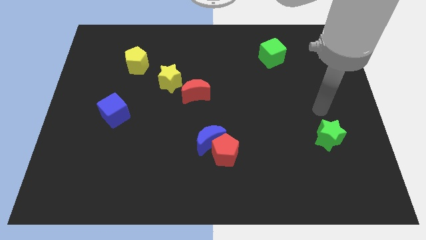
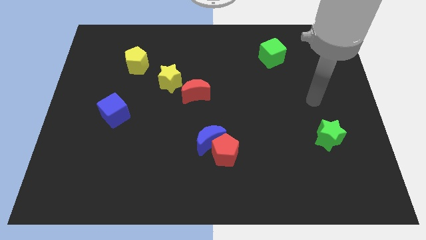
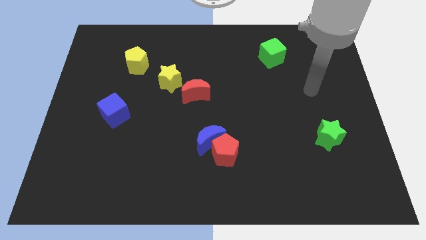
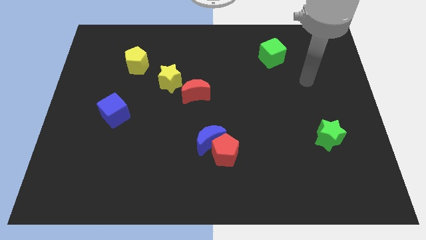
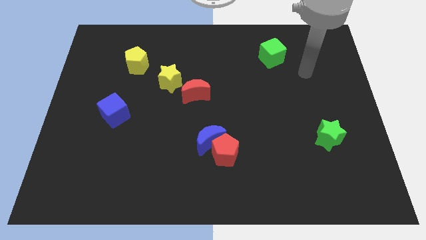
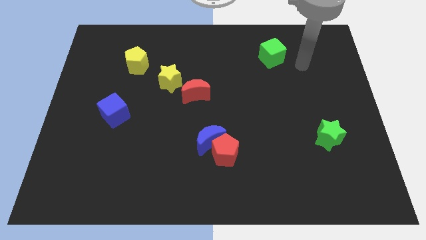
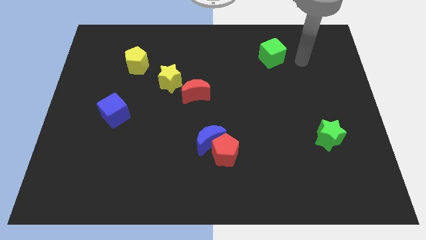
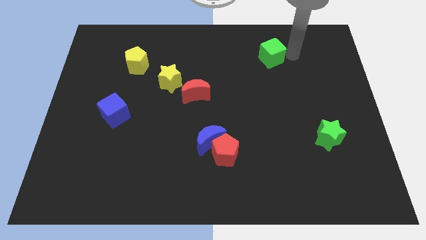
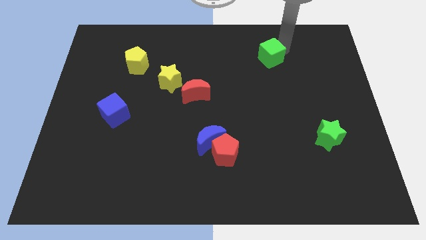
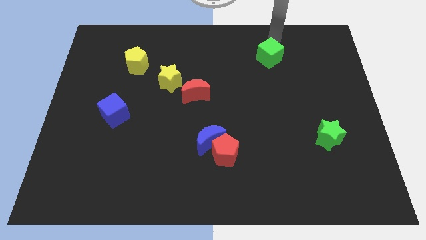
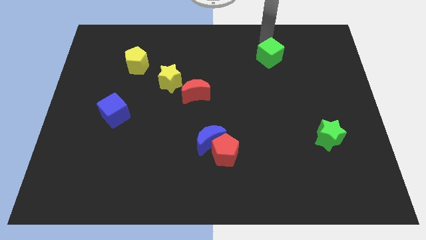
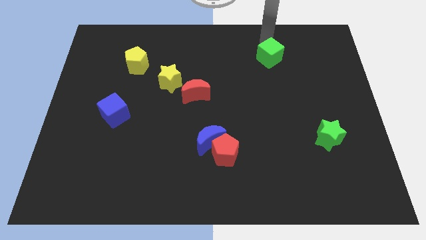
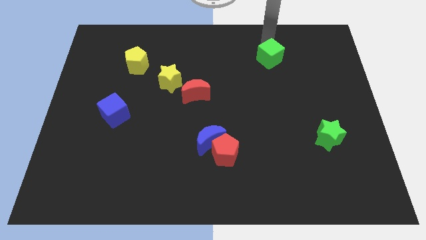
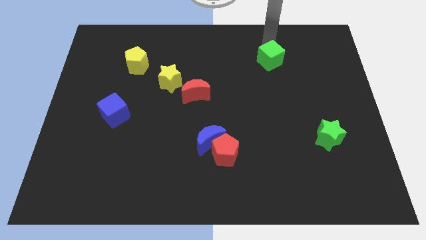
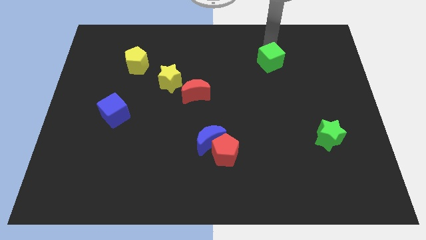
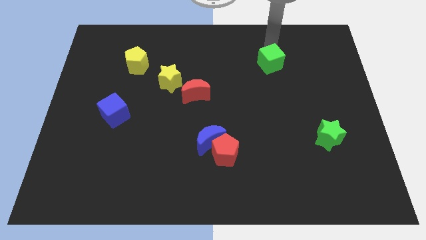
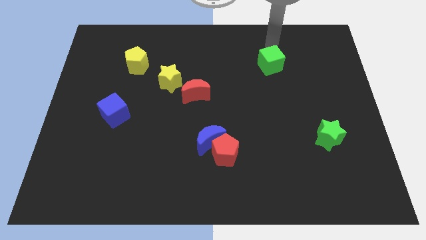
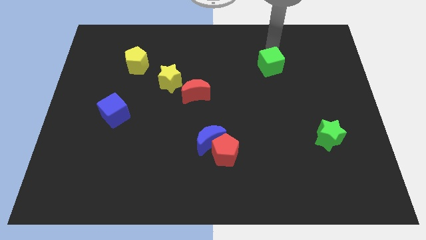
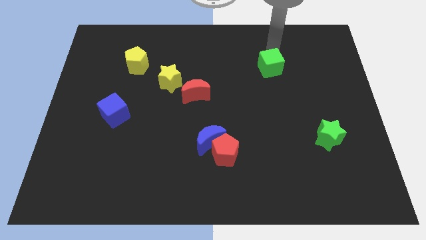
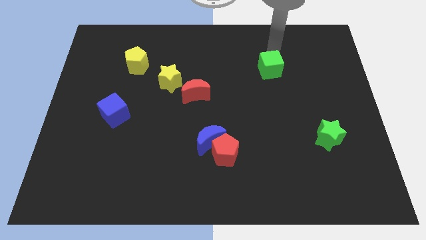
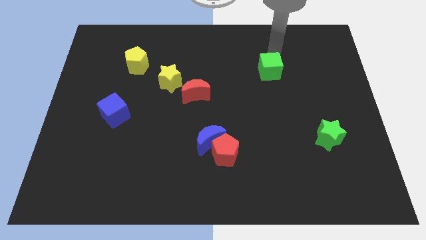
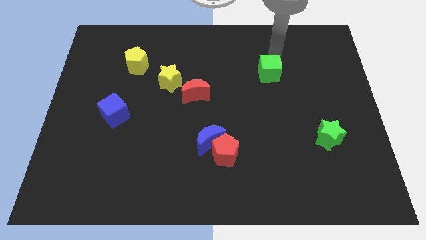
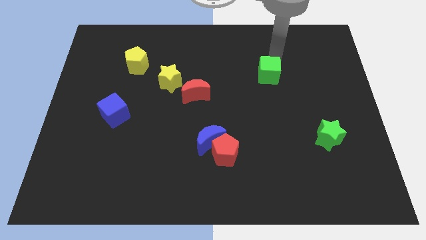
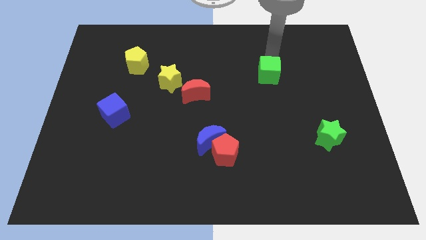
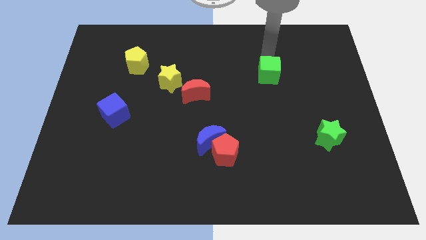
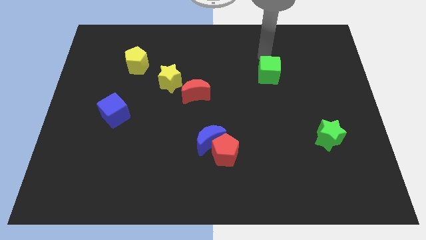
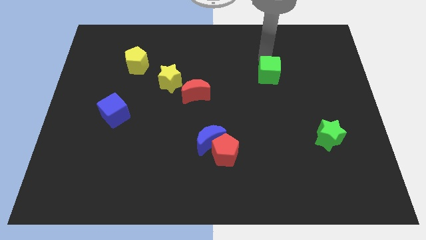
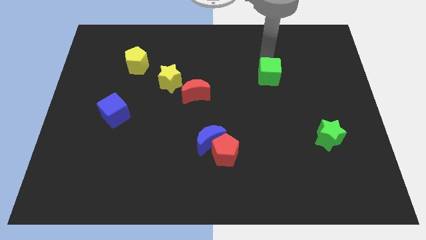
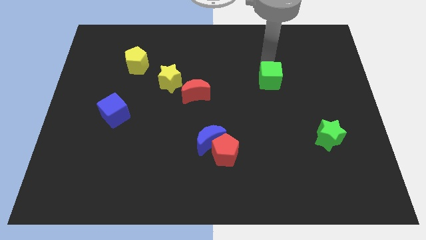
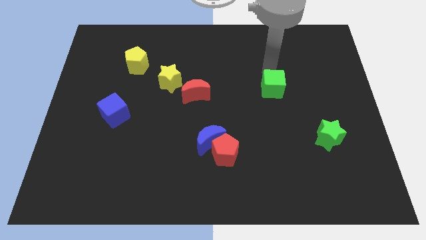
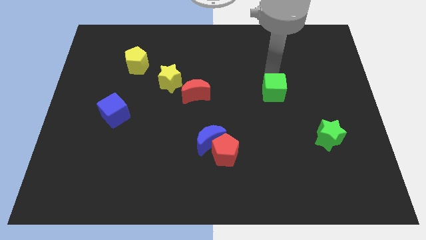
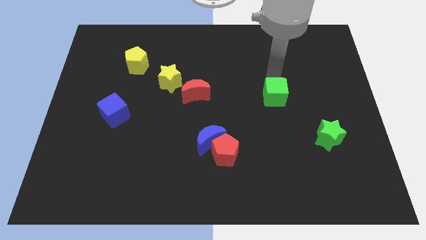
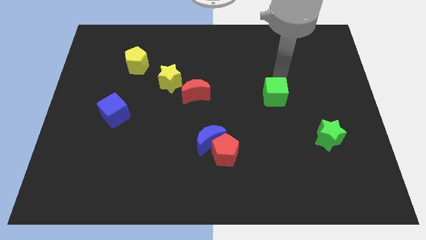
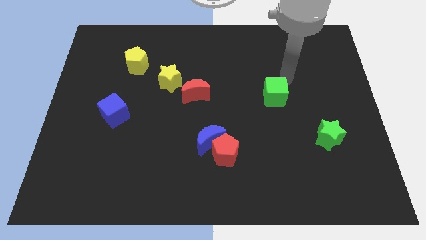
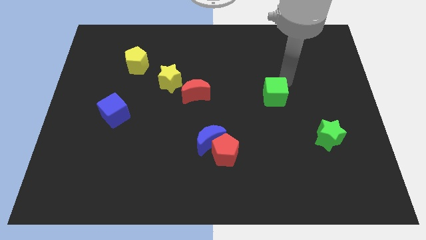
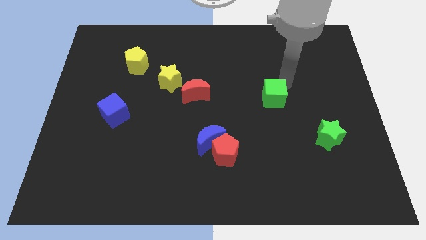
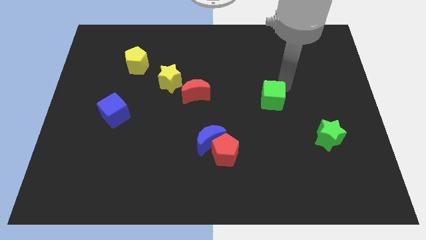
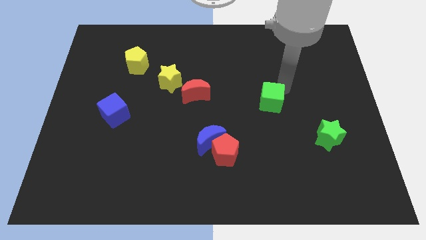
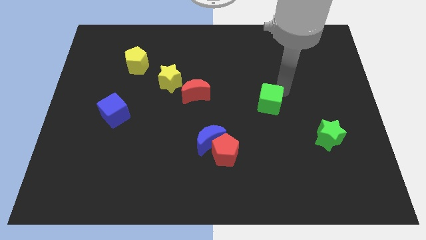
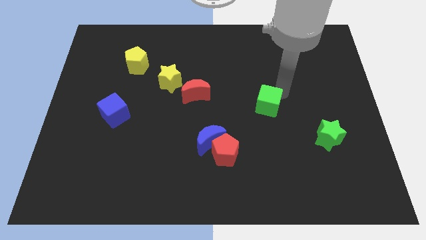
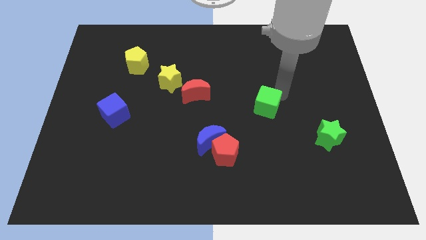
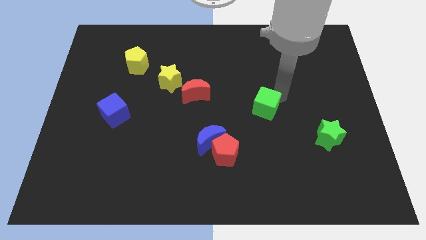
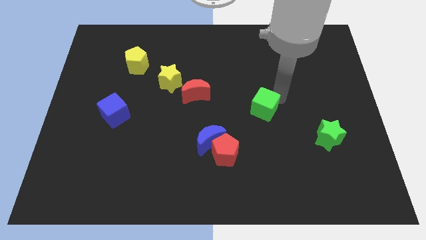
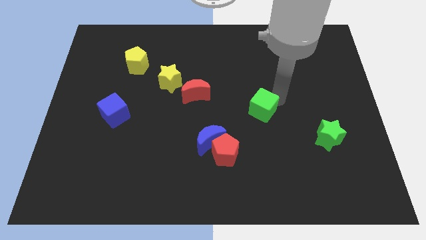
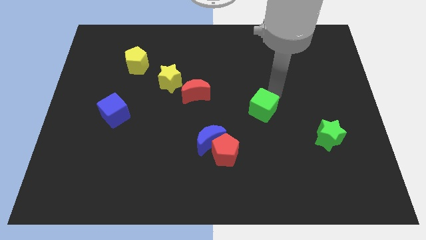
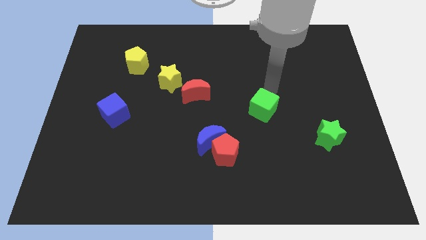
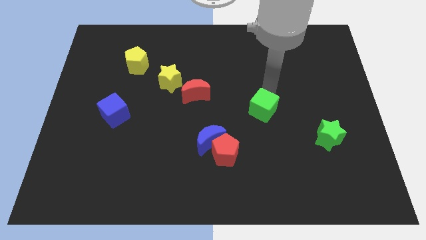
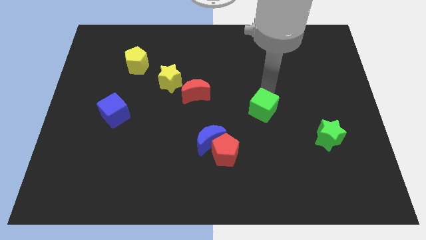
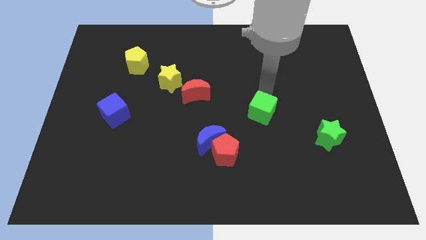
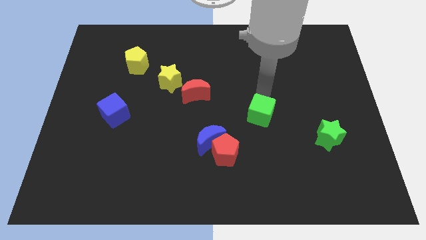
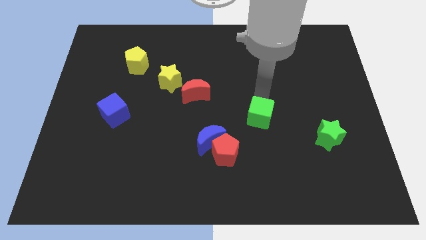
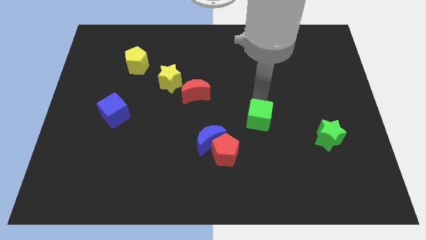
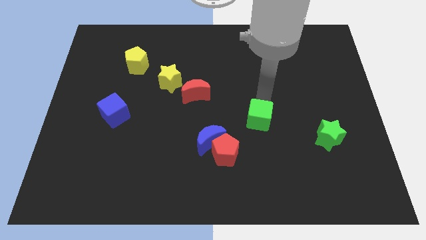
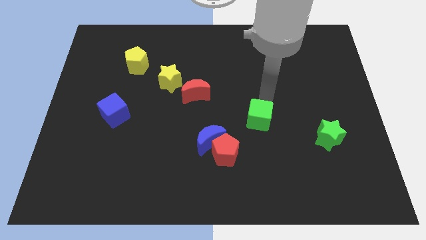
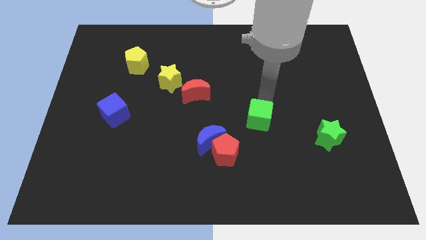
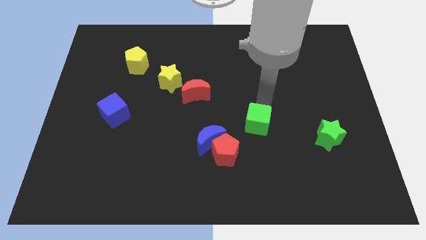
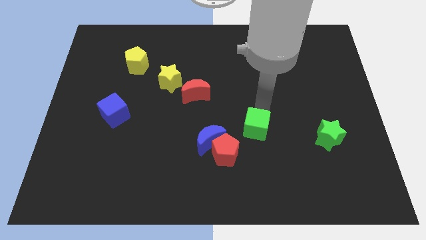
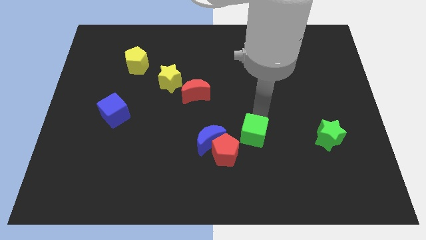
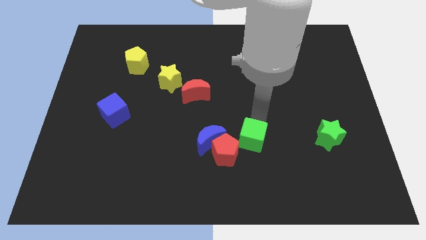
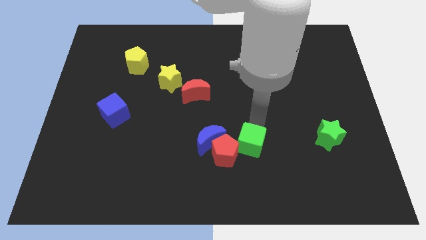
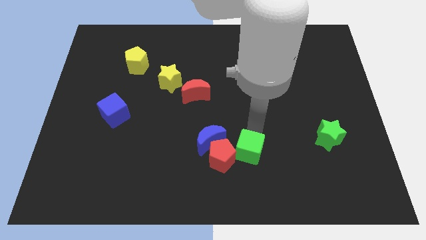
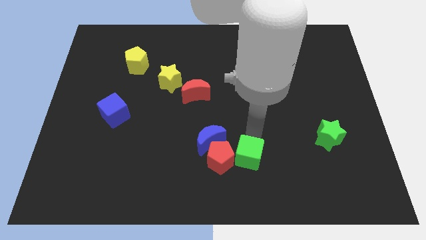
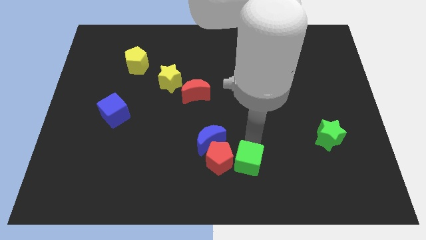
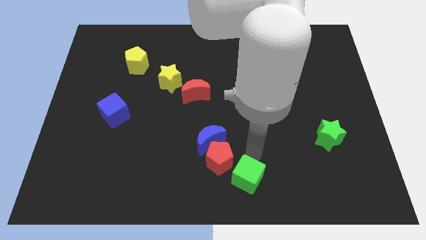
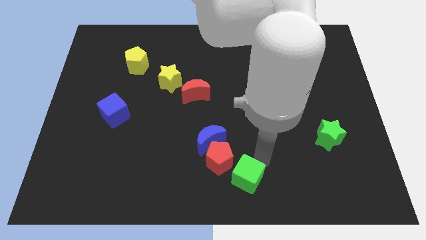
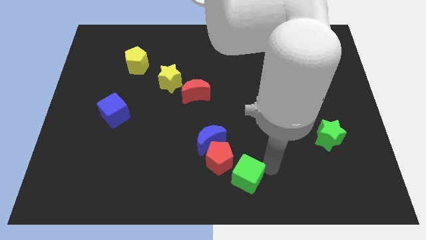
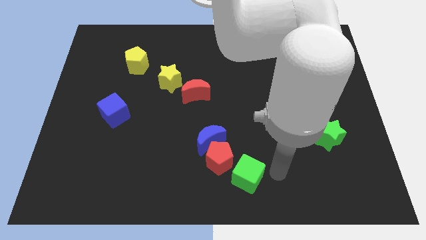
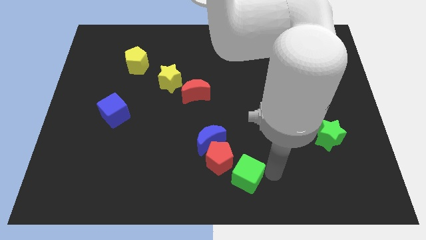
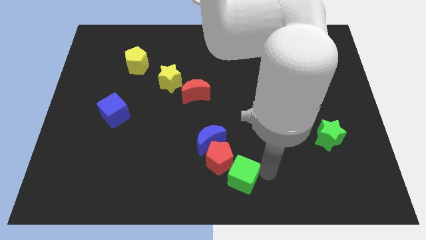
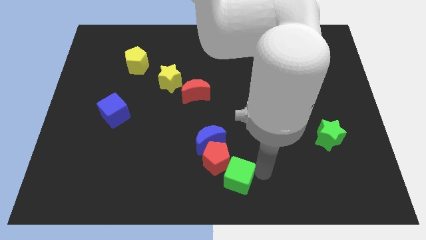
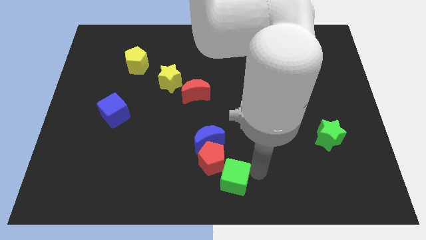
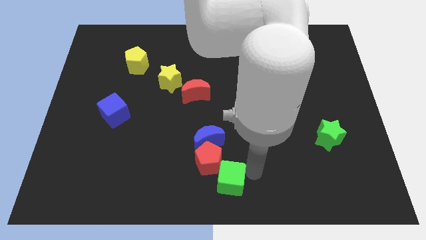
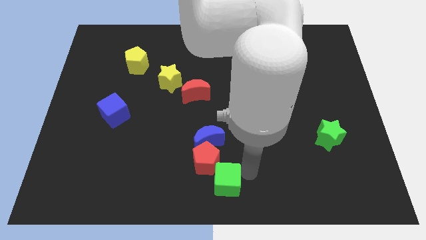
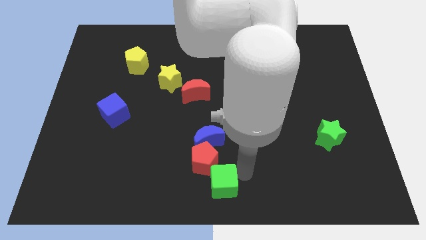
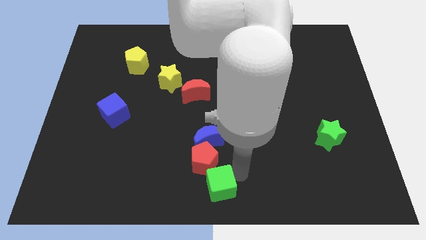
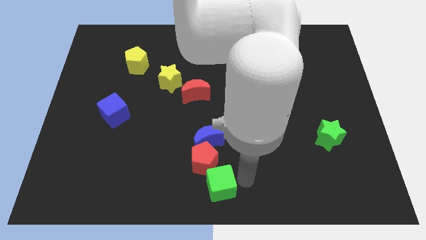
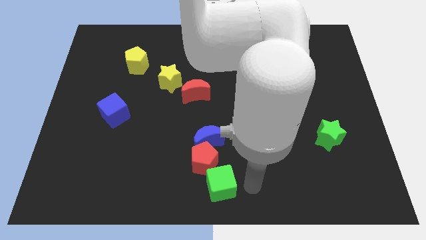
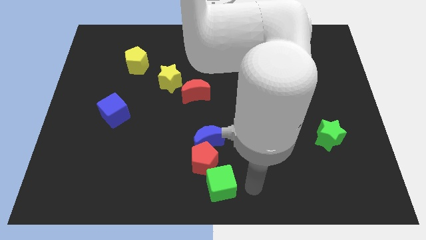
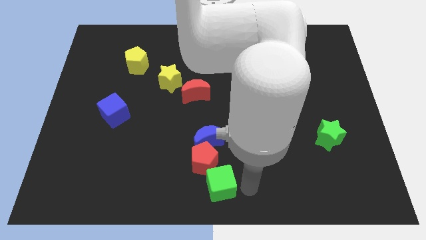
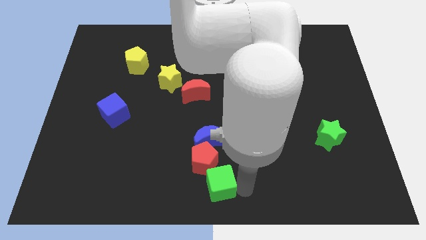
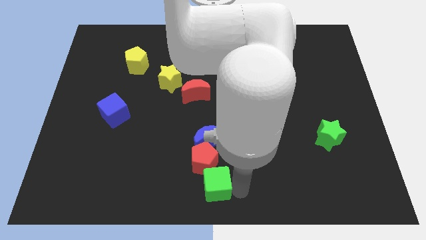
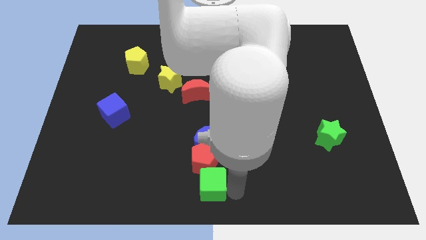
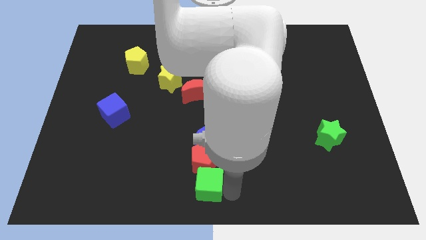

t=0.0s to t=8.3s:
slide the green cube to the bottom left side of the red pentagon
